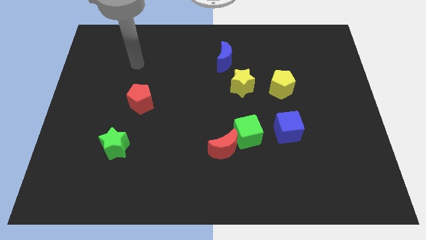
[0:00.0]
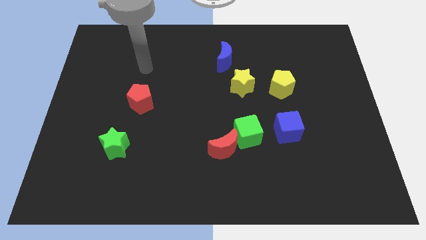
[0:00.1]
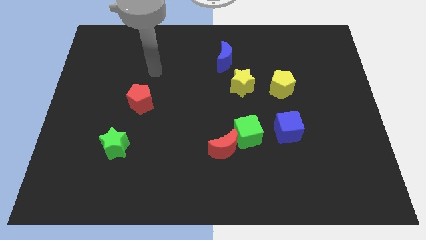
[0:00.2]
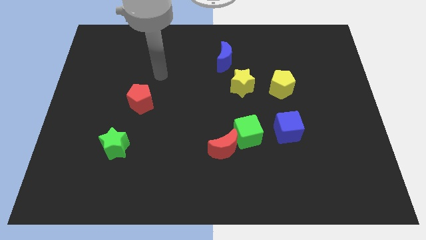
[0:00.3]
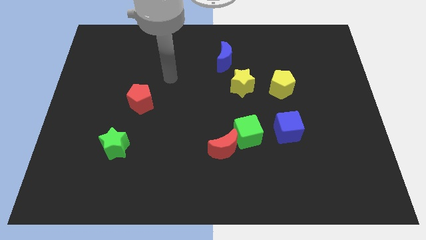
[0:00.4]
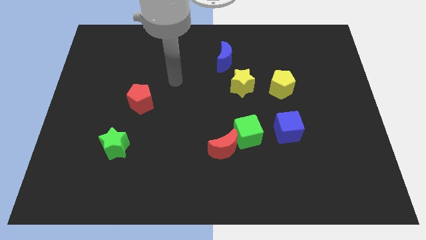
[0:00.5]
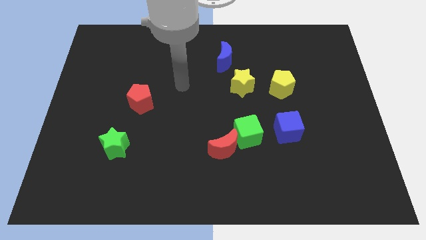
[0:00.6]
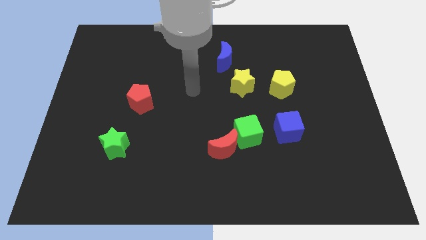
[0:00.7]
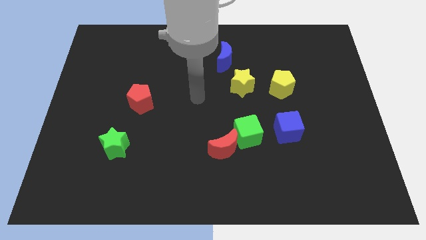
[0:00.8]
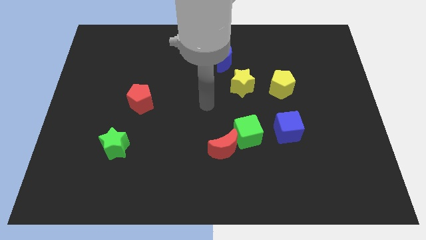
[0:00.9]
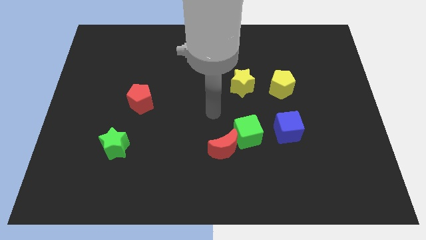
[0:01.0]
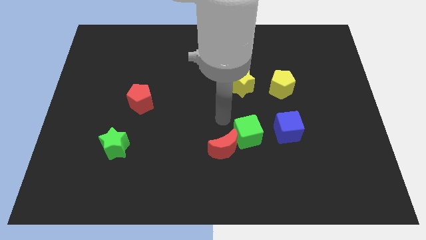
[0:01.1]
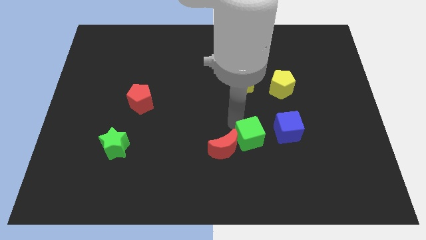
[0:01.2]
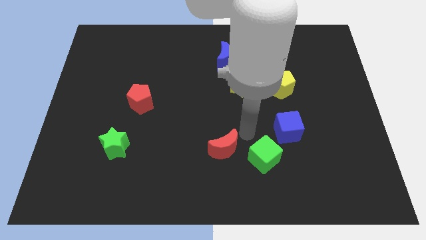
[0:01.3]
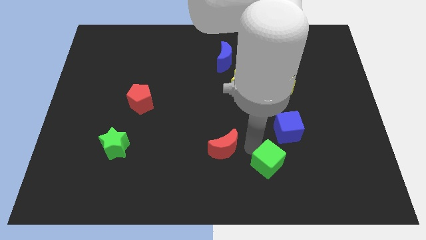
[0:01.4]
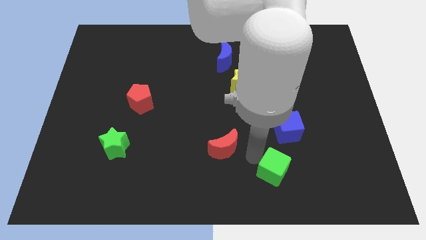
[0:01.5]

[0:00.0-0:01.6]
pull the red moon apart from the green cube

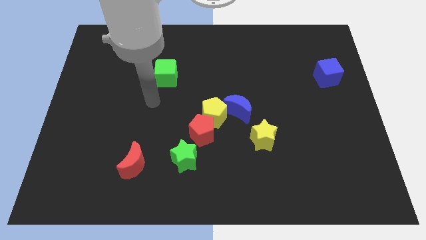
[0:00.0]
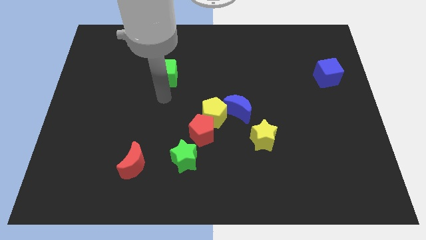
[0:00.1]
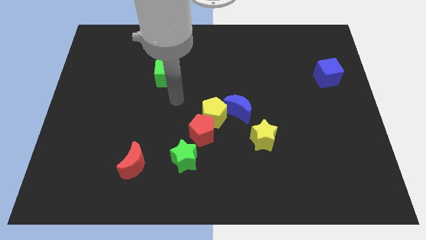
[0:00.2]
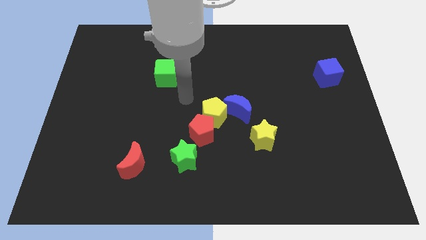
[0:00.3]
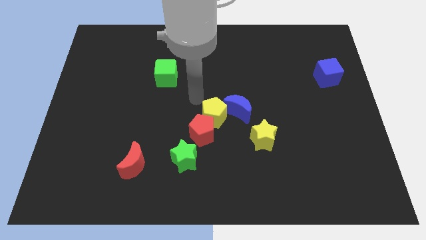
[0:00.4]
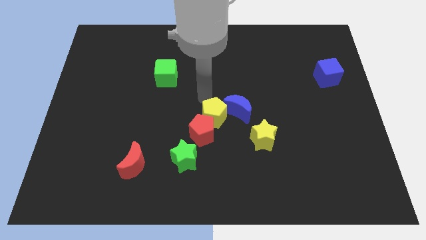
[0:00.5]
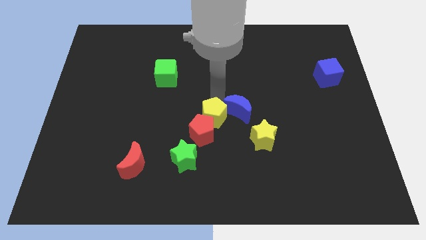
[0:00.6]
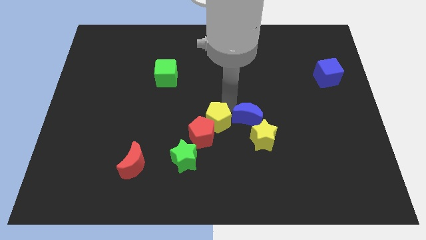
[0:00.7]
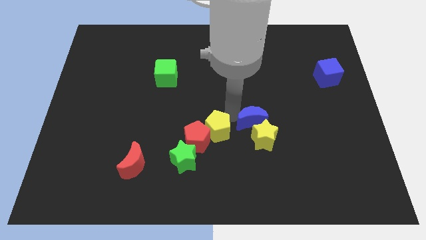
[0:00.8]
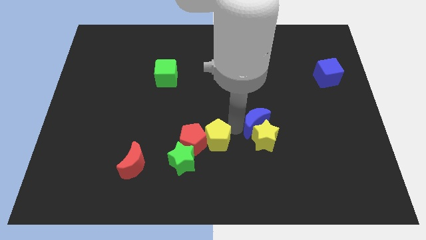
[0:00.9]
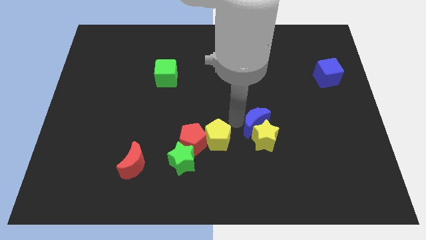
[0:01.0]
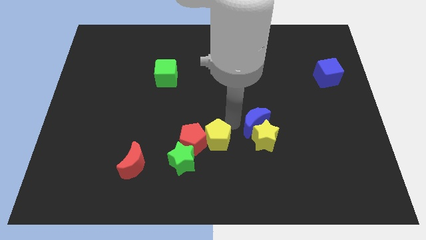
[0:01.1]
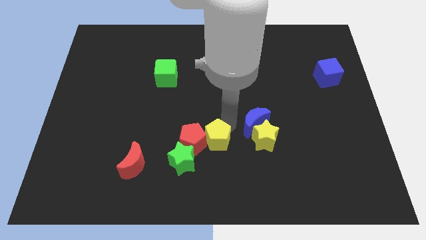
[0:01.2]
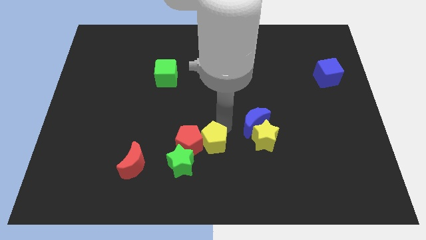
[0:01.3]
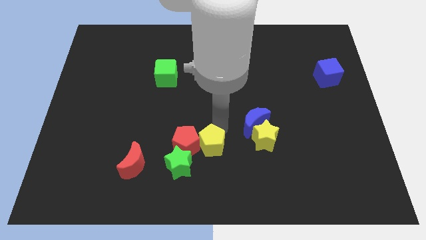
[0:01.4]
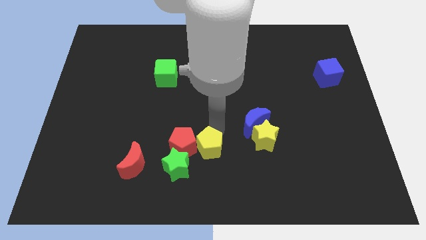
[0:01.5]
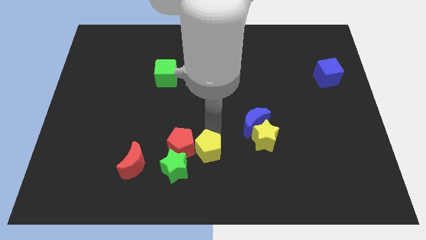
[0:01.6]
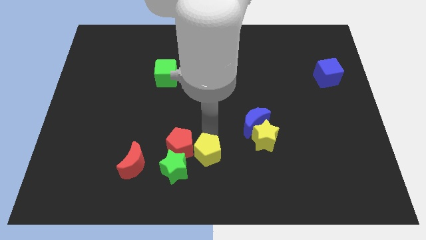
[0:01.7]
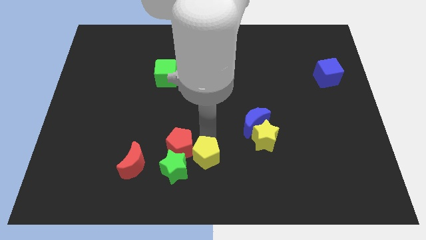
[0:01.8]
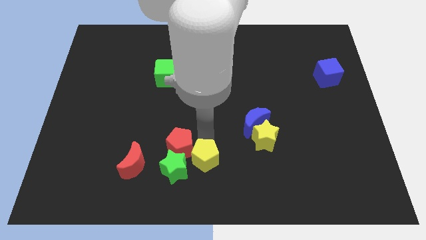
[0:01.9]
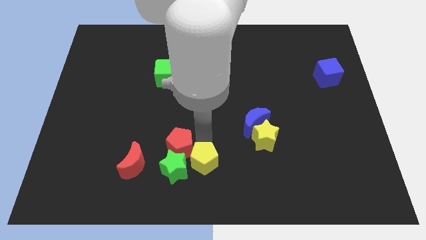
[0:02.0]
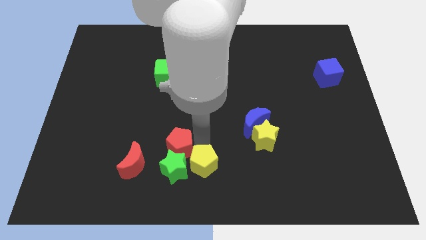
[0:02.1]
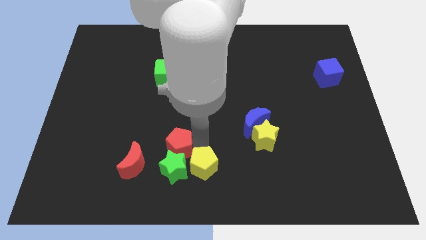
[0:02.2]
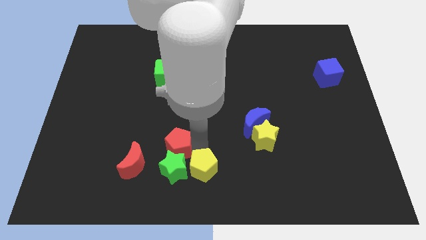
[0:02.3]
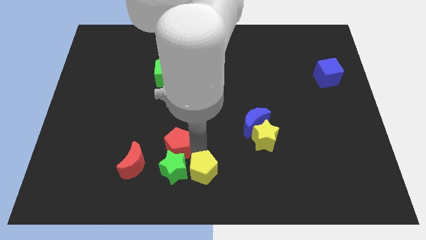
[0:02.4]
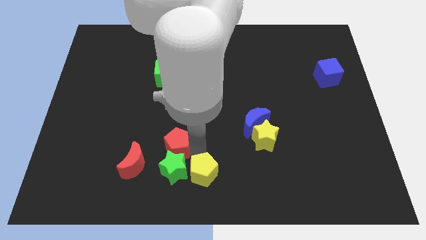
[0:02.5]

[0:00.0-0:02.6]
pull the yellow pentagon apart from the red pentagon and blue moon

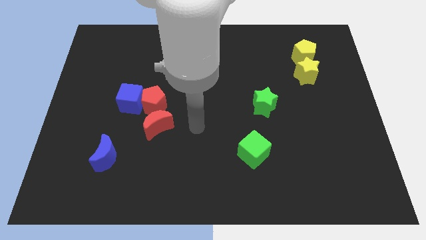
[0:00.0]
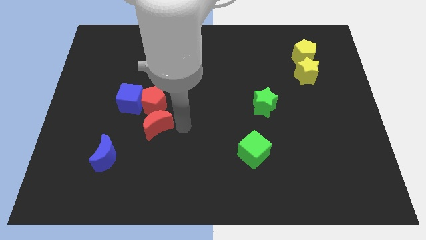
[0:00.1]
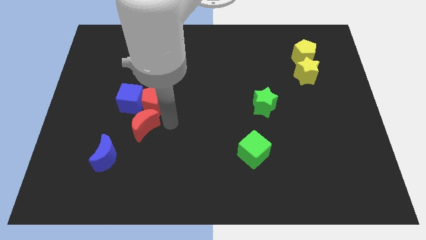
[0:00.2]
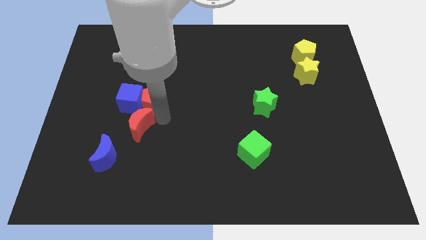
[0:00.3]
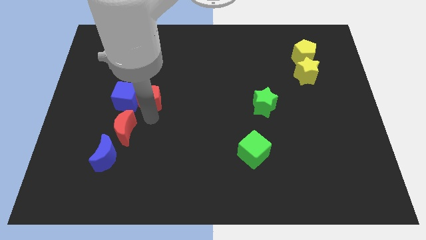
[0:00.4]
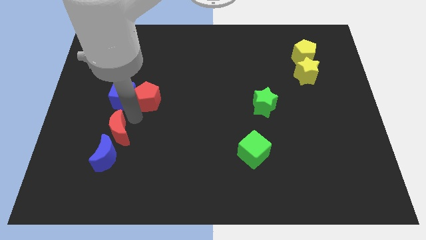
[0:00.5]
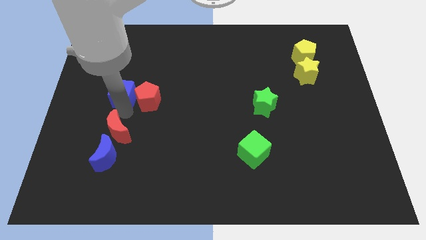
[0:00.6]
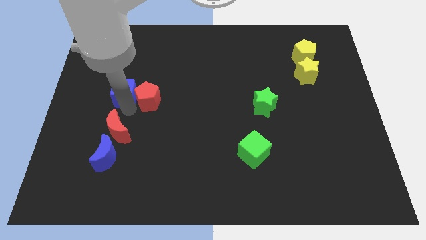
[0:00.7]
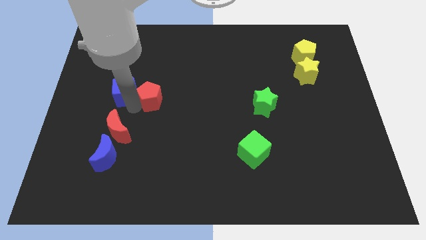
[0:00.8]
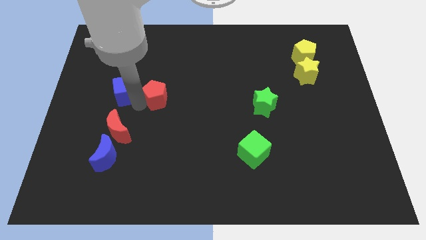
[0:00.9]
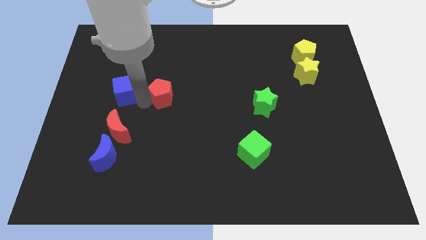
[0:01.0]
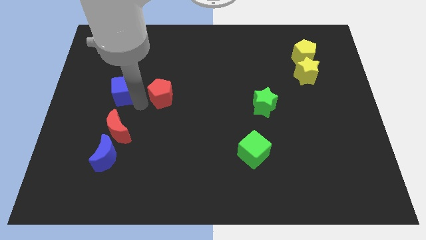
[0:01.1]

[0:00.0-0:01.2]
move the red pentagon away from the blue cube and red moon

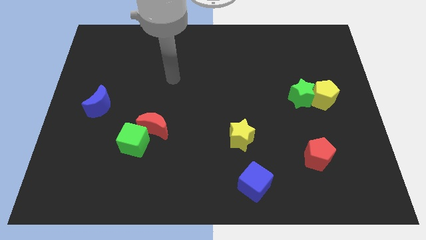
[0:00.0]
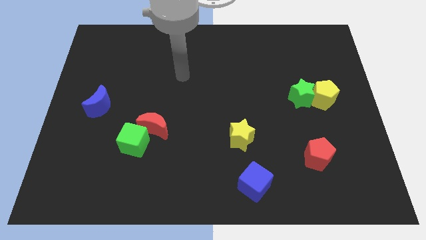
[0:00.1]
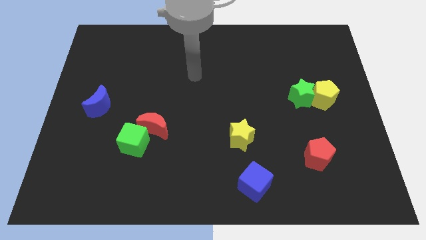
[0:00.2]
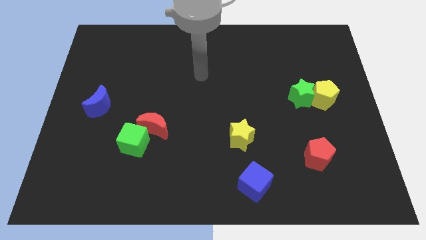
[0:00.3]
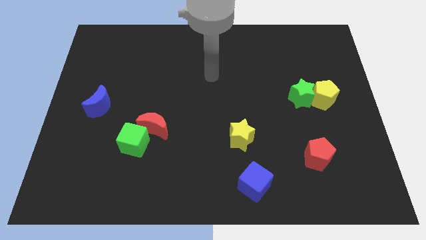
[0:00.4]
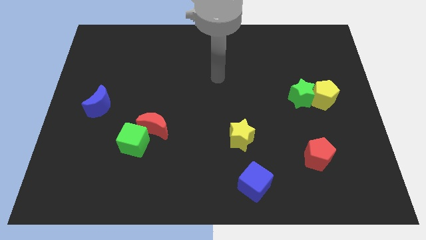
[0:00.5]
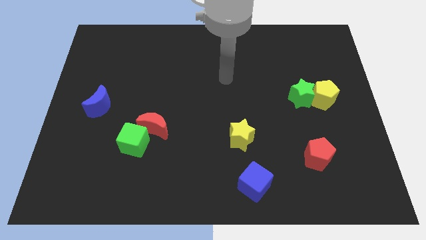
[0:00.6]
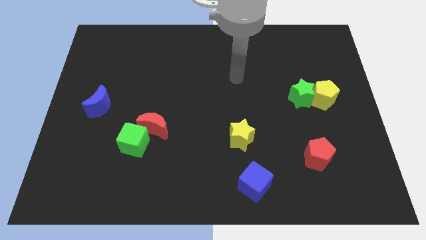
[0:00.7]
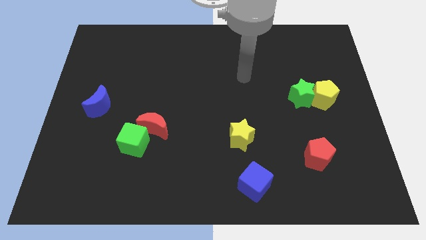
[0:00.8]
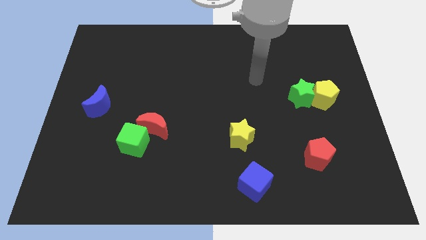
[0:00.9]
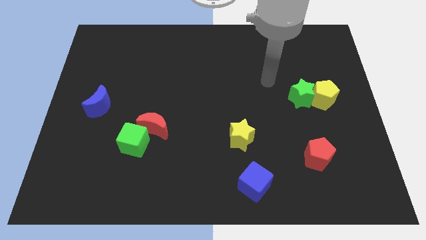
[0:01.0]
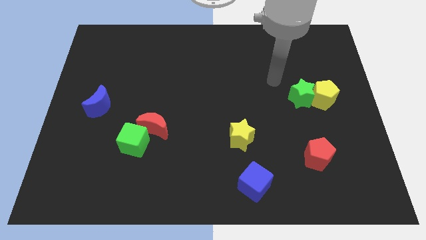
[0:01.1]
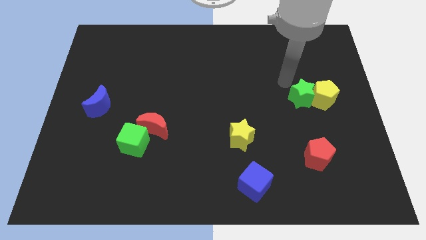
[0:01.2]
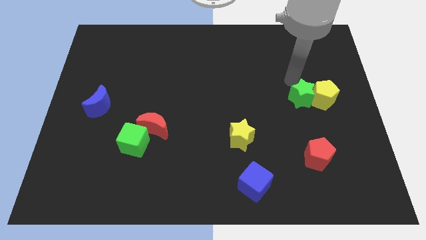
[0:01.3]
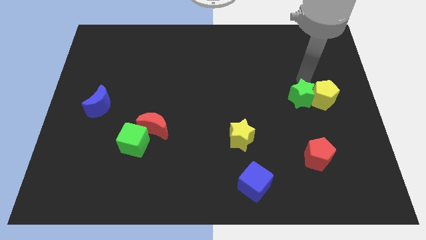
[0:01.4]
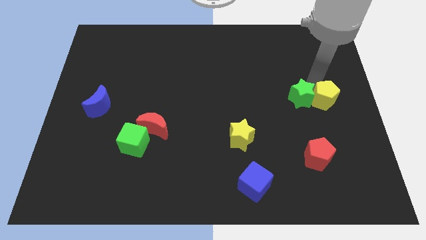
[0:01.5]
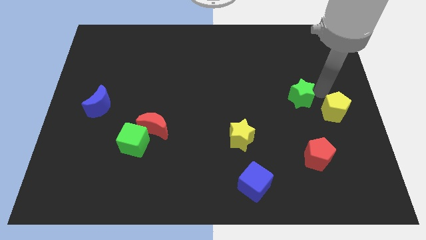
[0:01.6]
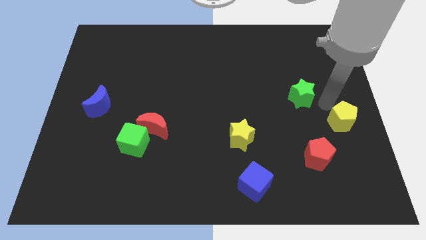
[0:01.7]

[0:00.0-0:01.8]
separate the green star from the yellow pentagon

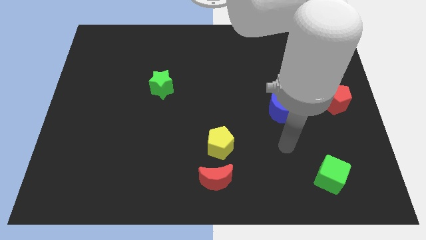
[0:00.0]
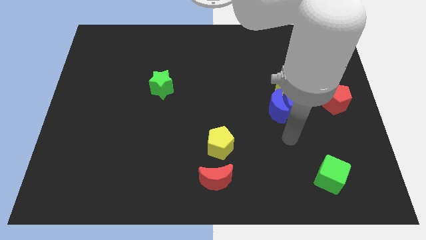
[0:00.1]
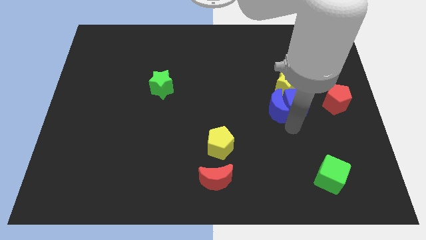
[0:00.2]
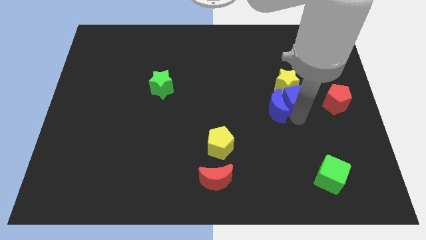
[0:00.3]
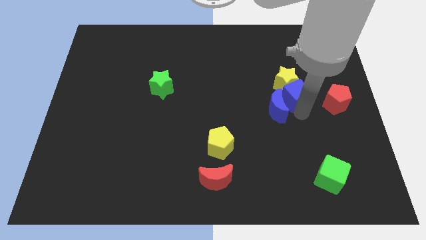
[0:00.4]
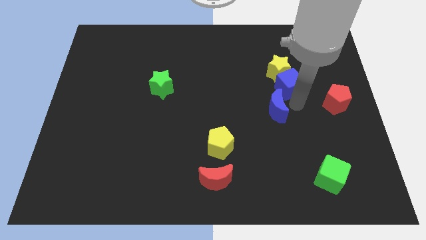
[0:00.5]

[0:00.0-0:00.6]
separate the blue moon from the blue cube and yellow star

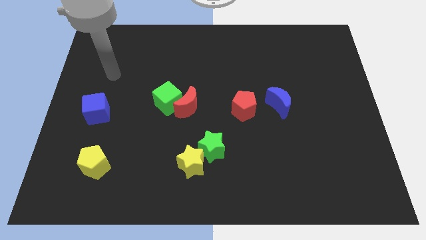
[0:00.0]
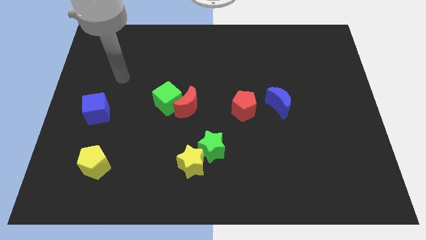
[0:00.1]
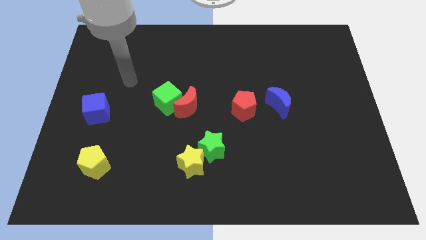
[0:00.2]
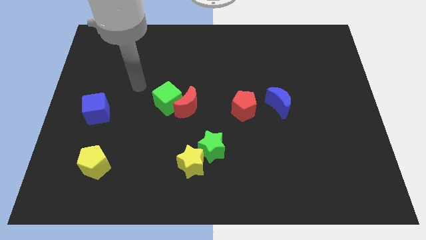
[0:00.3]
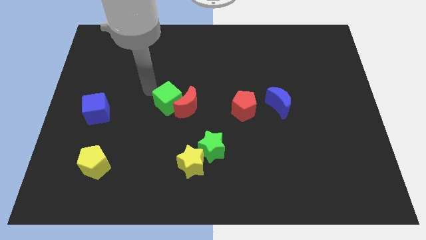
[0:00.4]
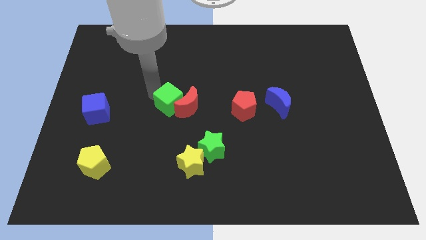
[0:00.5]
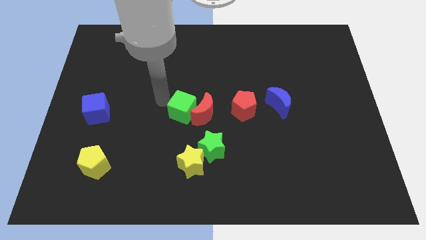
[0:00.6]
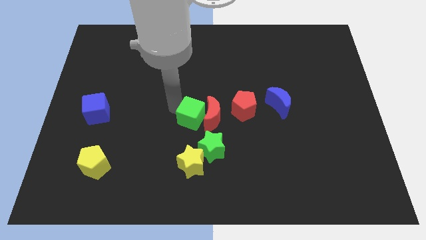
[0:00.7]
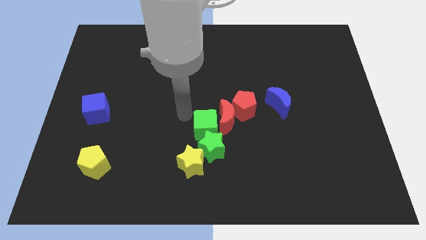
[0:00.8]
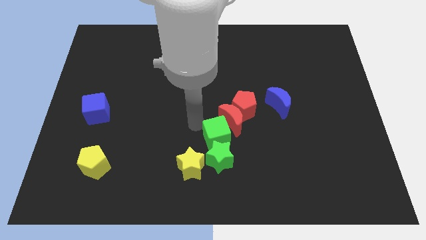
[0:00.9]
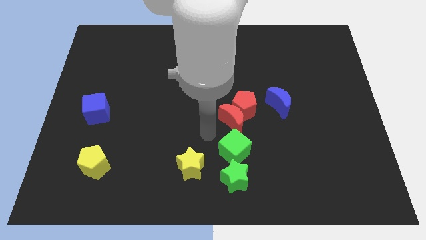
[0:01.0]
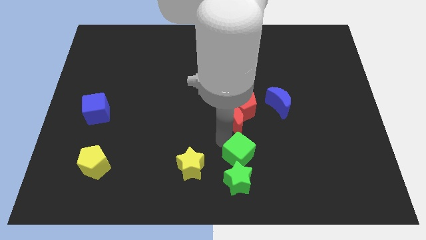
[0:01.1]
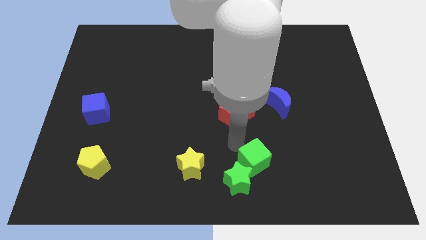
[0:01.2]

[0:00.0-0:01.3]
separate the red moon from the green cube

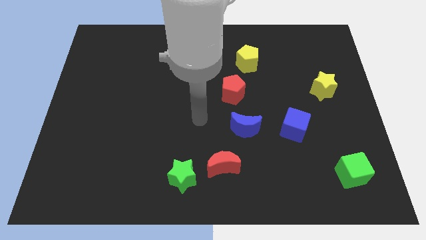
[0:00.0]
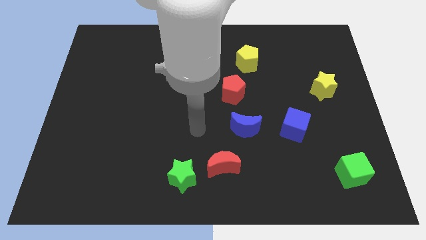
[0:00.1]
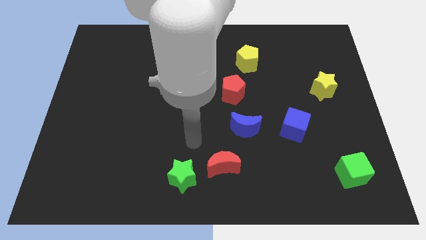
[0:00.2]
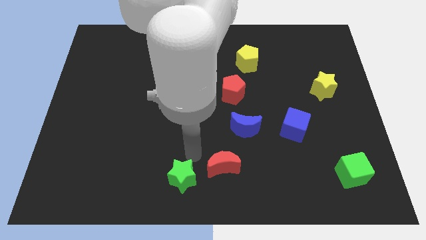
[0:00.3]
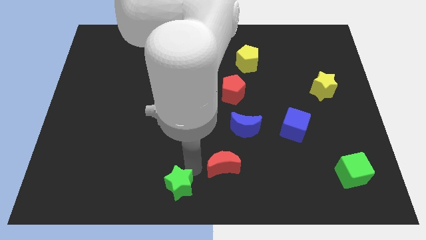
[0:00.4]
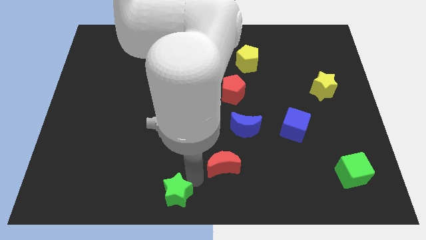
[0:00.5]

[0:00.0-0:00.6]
move the red moon away from the green star
